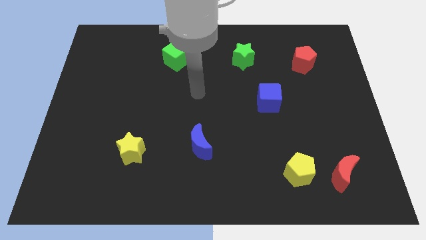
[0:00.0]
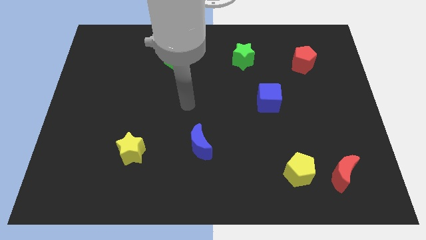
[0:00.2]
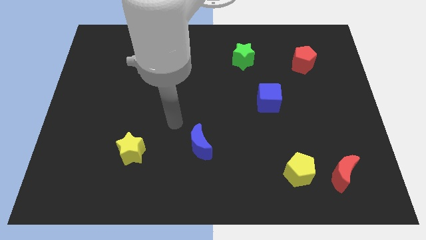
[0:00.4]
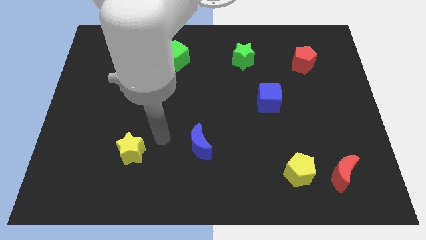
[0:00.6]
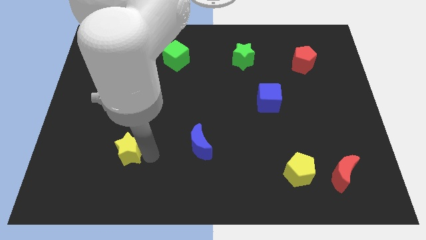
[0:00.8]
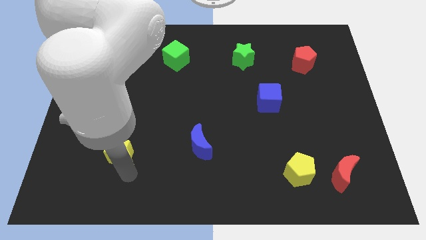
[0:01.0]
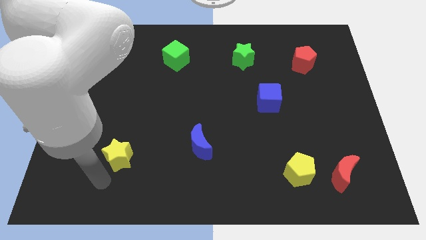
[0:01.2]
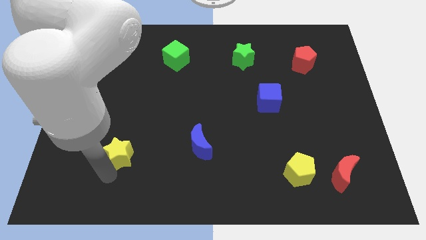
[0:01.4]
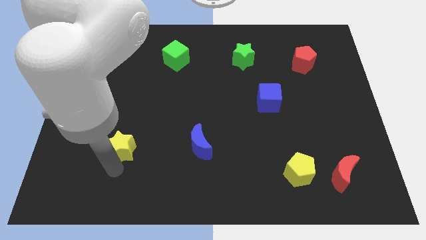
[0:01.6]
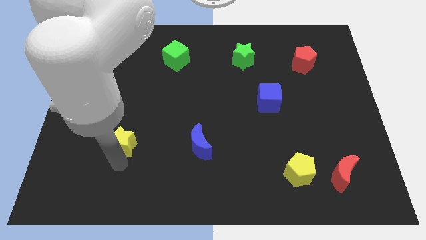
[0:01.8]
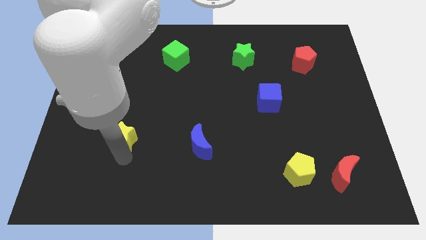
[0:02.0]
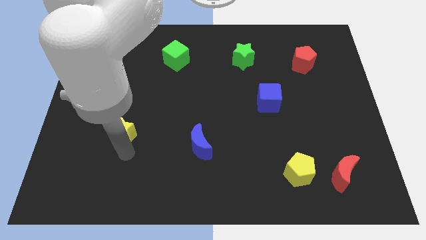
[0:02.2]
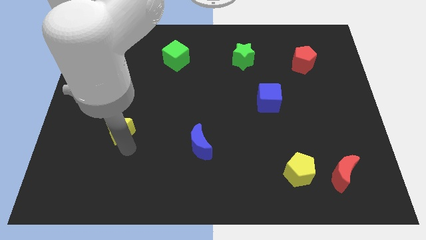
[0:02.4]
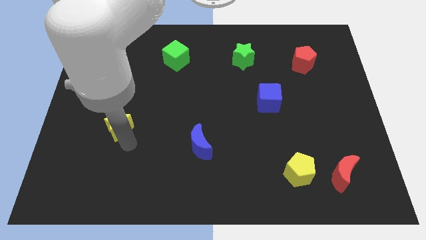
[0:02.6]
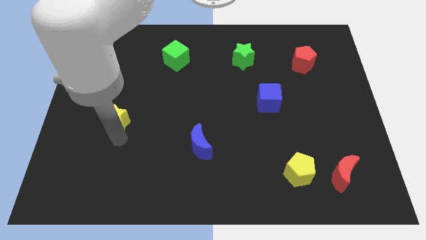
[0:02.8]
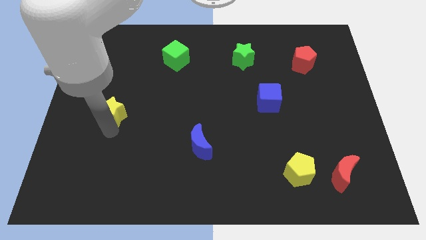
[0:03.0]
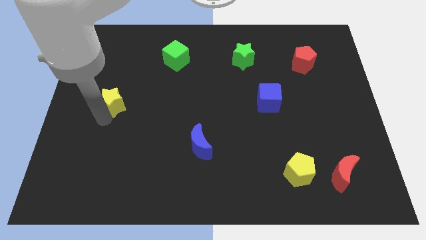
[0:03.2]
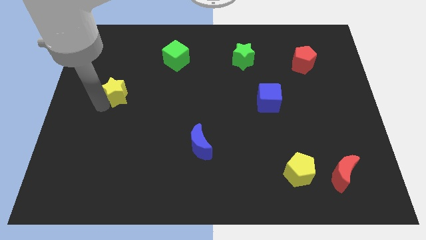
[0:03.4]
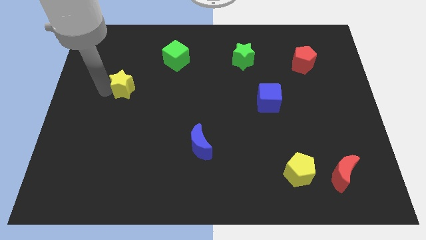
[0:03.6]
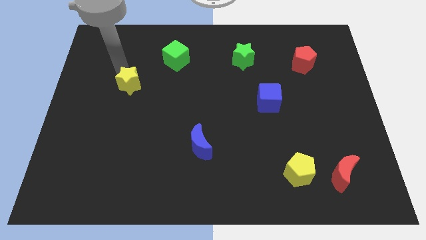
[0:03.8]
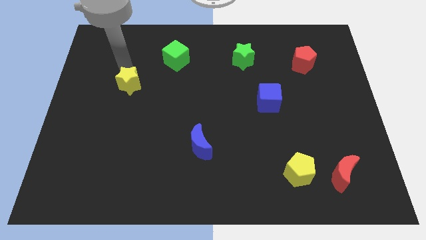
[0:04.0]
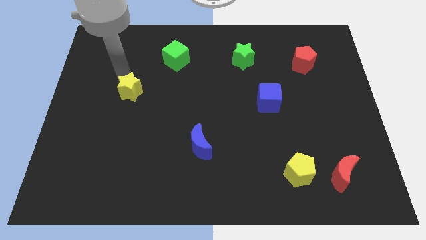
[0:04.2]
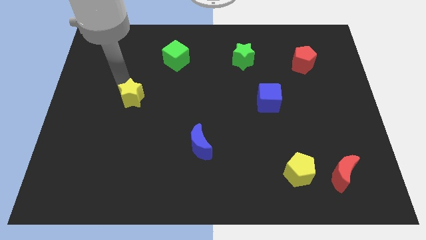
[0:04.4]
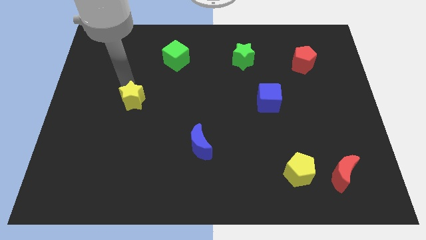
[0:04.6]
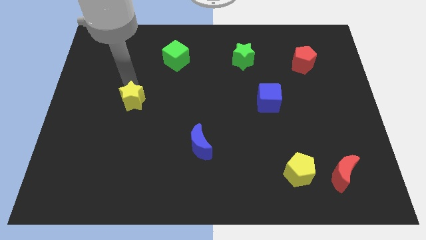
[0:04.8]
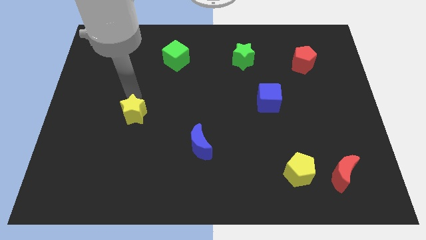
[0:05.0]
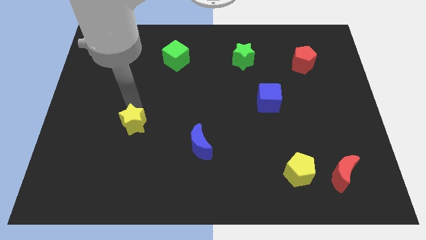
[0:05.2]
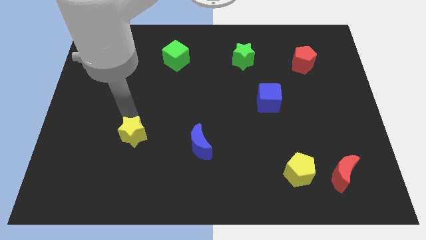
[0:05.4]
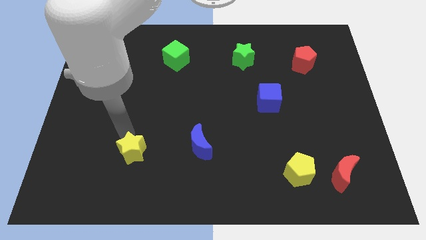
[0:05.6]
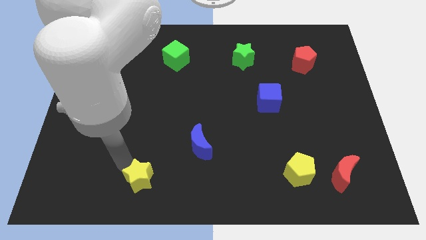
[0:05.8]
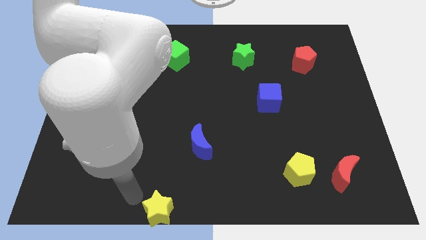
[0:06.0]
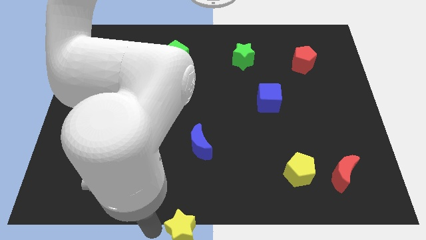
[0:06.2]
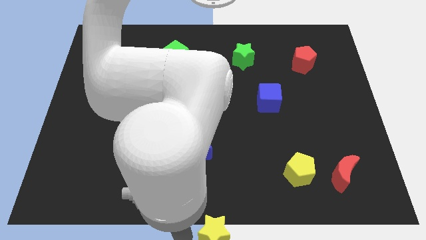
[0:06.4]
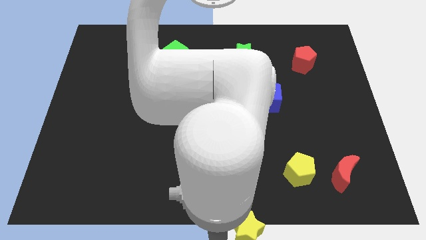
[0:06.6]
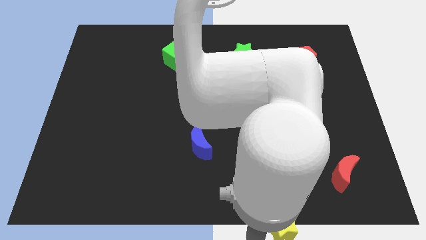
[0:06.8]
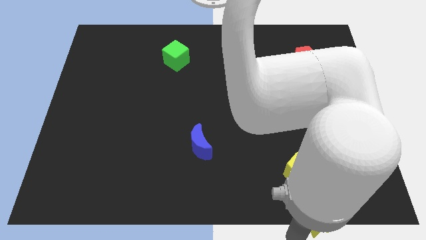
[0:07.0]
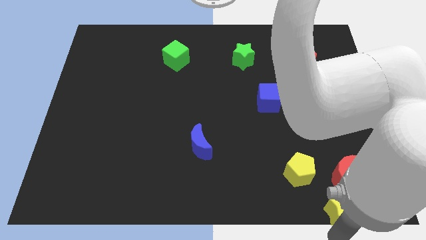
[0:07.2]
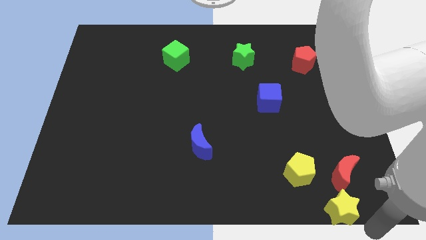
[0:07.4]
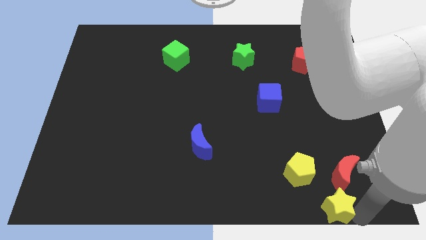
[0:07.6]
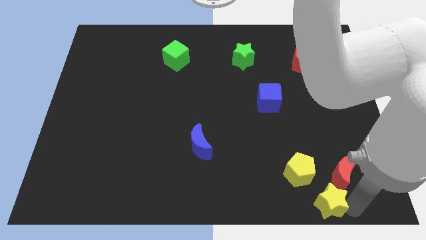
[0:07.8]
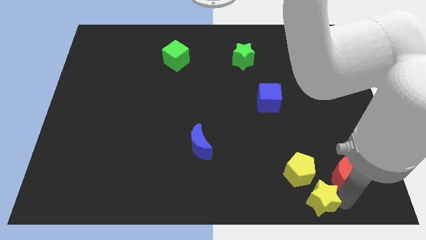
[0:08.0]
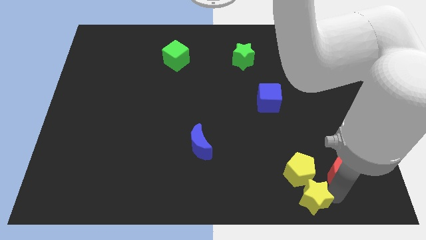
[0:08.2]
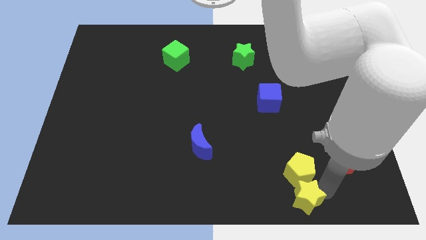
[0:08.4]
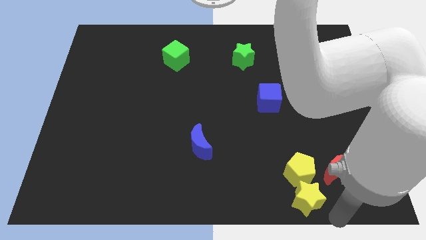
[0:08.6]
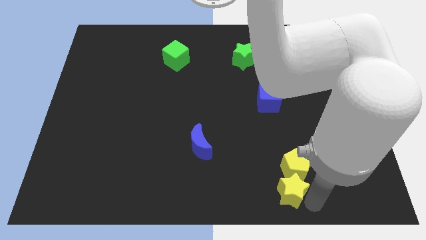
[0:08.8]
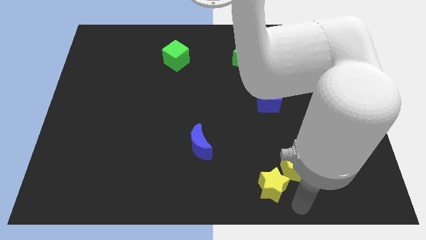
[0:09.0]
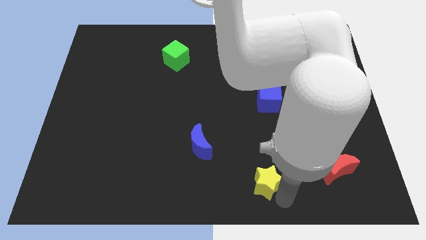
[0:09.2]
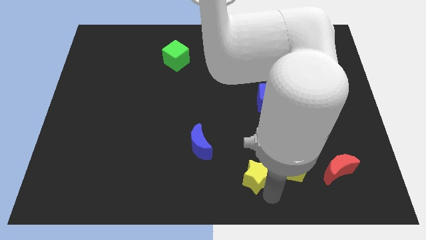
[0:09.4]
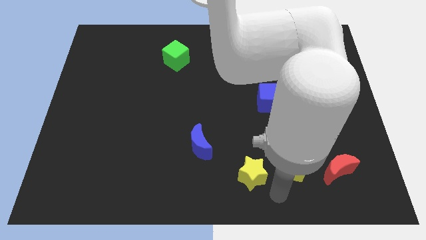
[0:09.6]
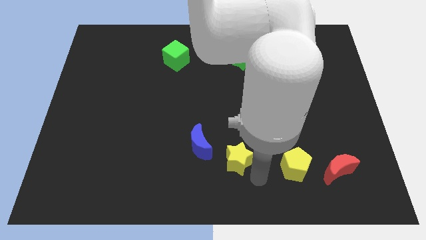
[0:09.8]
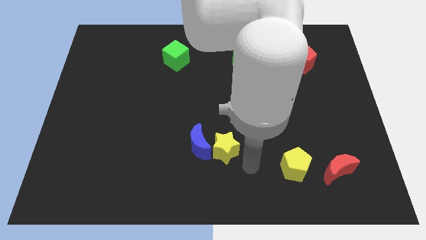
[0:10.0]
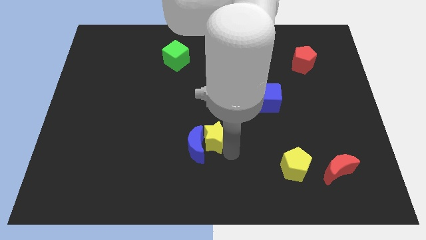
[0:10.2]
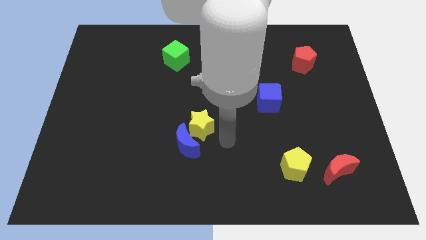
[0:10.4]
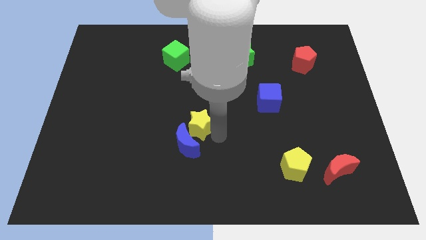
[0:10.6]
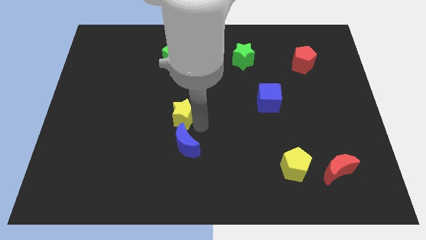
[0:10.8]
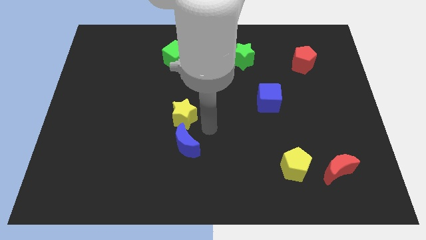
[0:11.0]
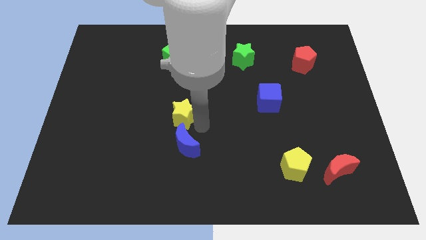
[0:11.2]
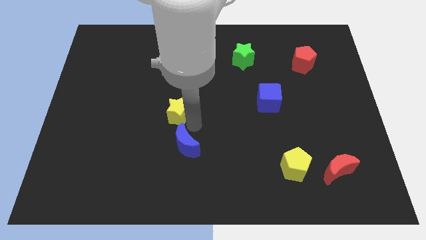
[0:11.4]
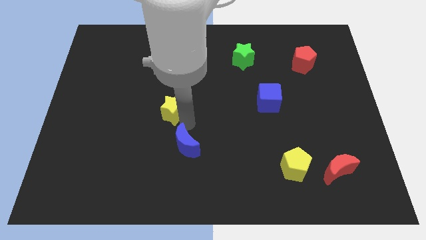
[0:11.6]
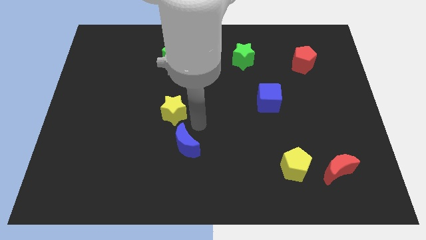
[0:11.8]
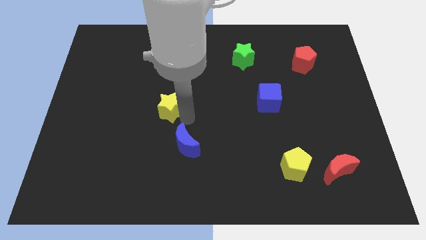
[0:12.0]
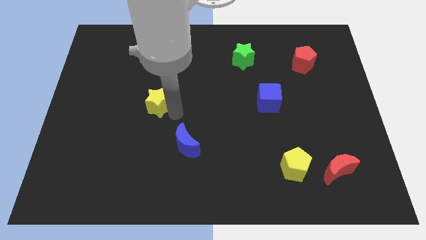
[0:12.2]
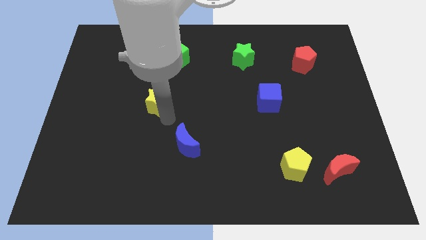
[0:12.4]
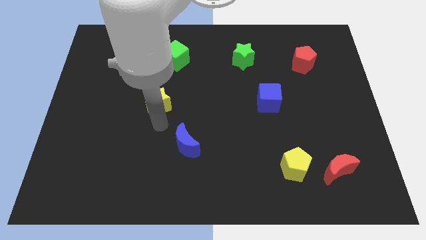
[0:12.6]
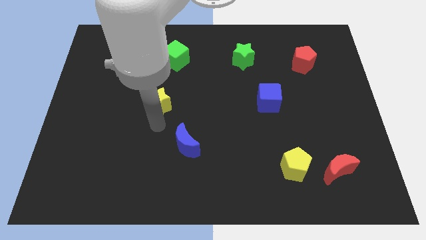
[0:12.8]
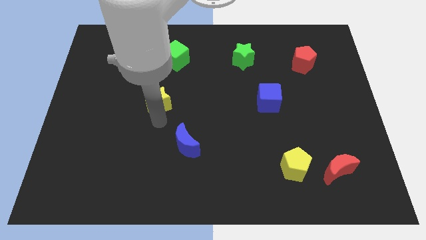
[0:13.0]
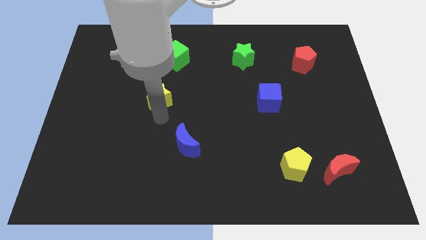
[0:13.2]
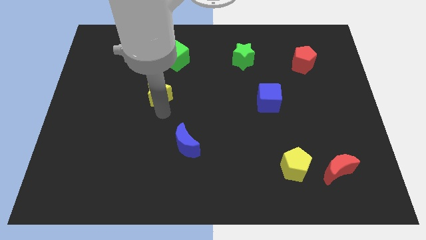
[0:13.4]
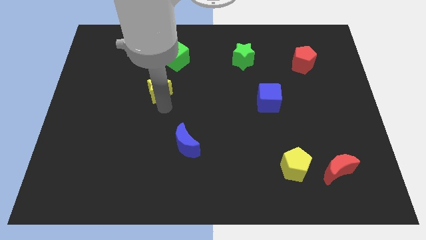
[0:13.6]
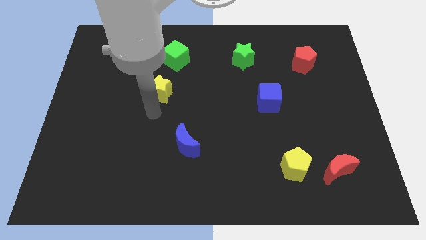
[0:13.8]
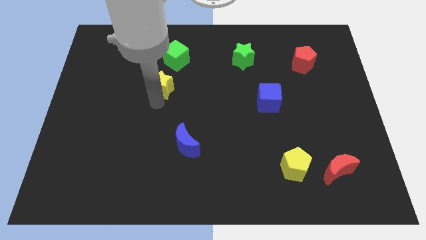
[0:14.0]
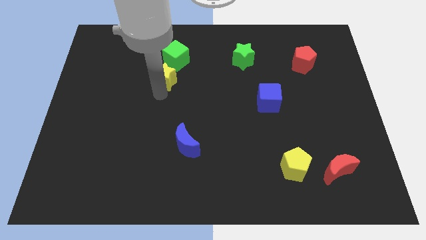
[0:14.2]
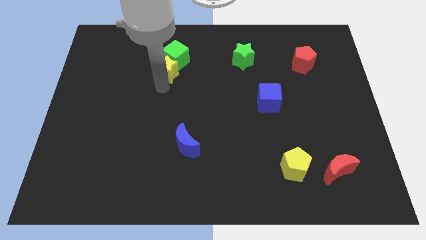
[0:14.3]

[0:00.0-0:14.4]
slide the yellow star close to the green cube

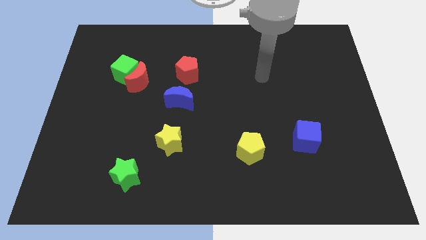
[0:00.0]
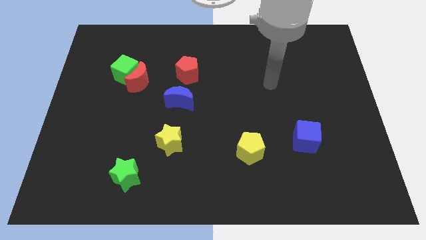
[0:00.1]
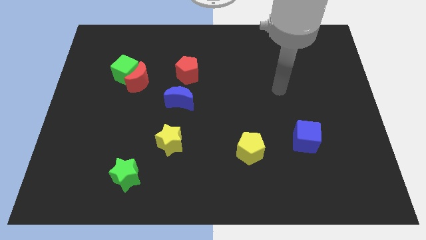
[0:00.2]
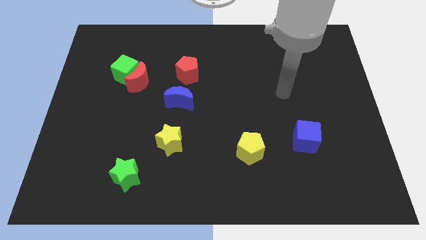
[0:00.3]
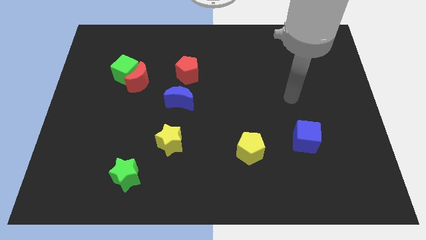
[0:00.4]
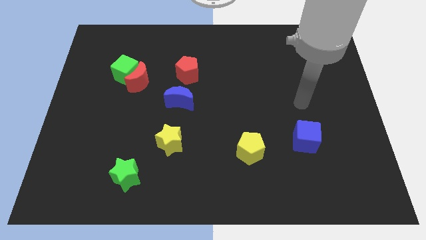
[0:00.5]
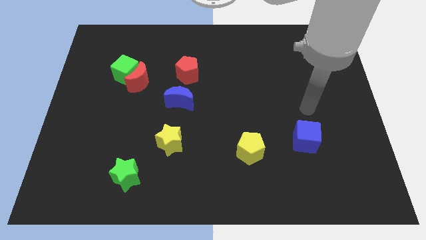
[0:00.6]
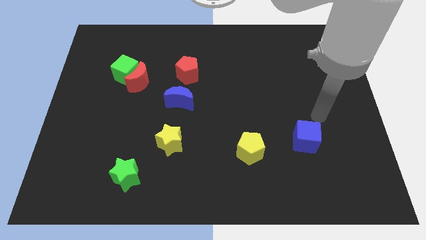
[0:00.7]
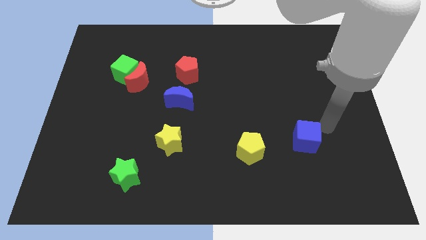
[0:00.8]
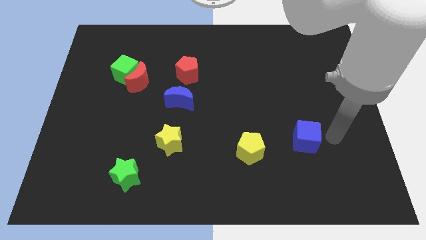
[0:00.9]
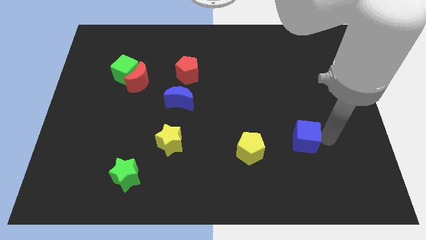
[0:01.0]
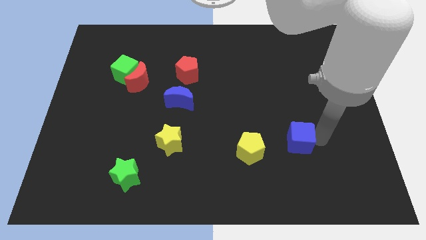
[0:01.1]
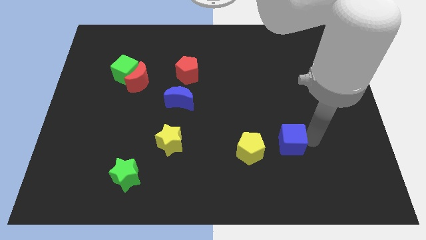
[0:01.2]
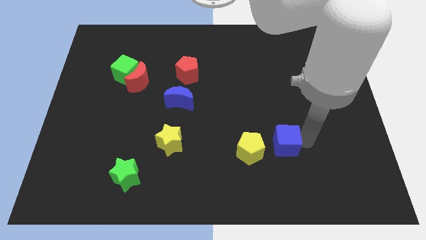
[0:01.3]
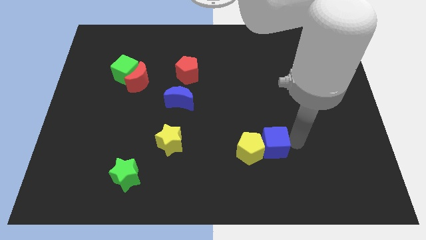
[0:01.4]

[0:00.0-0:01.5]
push the blue cube close to the yellow pentagon
